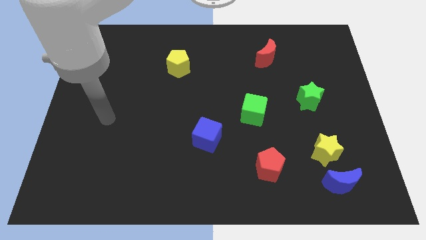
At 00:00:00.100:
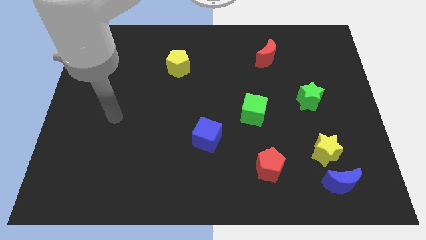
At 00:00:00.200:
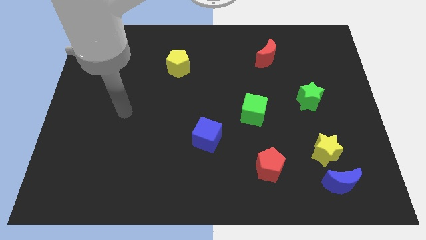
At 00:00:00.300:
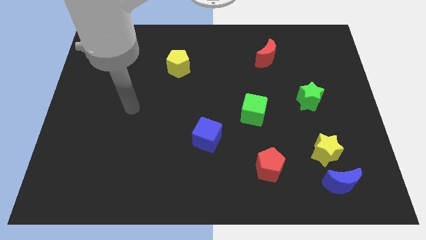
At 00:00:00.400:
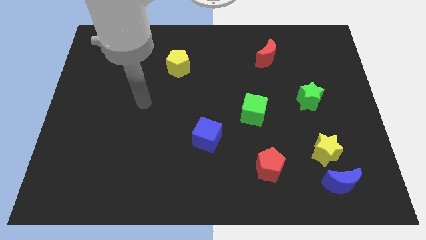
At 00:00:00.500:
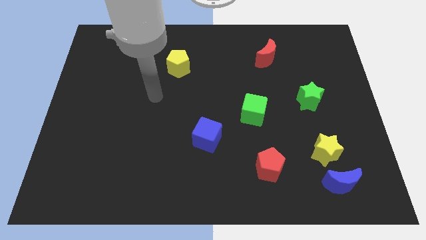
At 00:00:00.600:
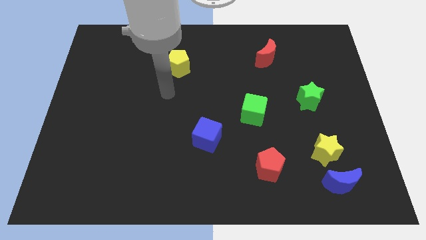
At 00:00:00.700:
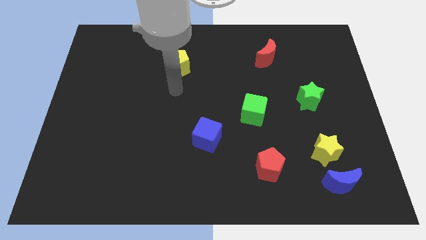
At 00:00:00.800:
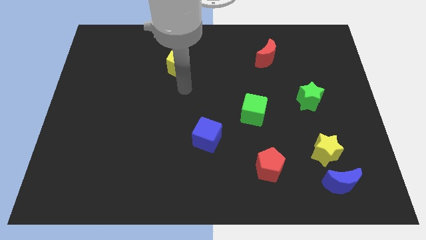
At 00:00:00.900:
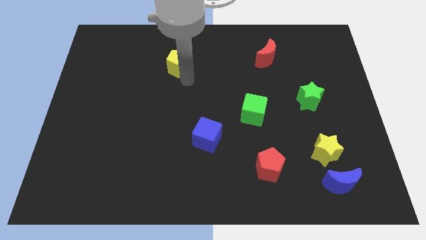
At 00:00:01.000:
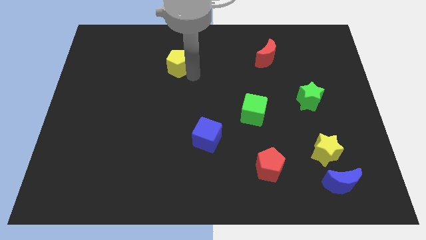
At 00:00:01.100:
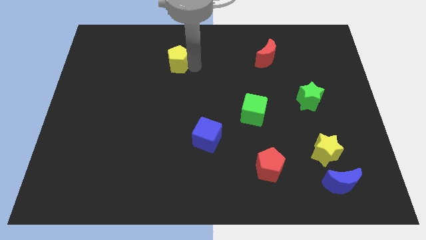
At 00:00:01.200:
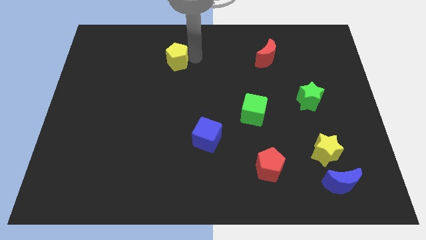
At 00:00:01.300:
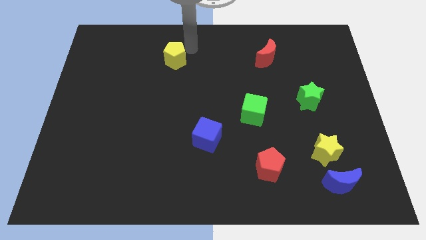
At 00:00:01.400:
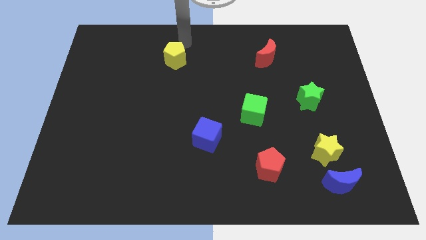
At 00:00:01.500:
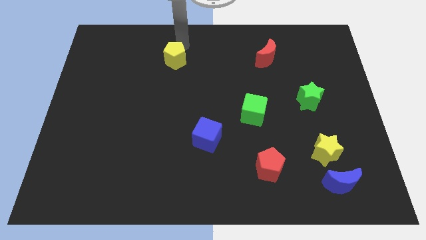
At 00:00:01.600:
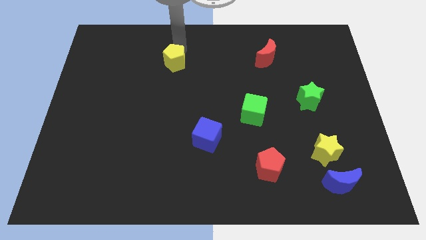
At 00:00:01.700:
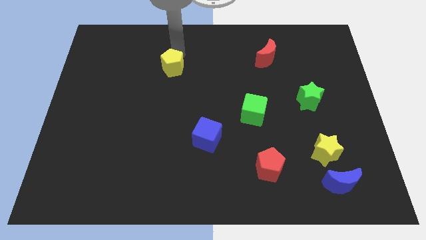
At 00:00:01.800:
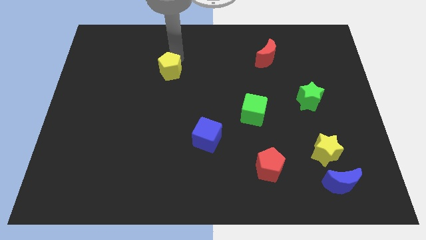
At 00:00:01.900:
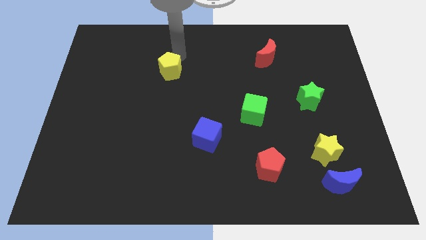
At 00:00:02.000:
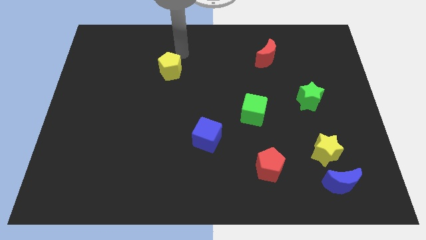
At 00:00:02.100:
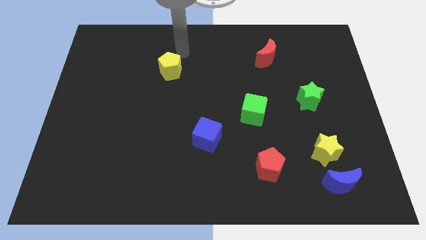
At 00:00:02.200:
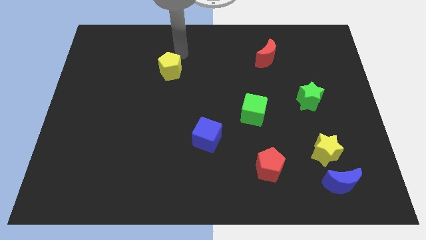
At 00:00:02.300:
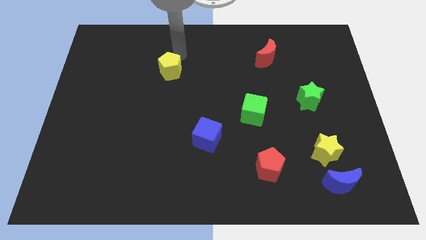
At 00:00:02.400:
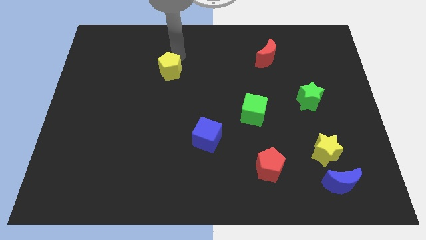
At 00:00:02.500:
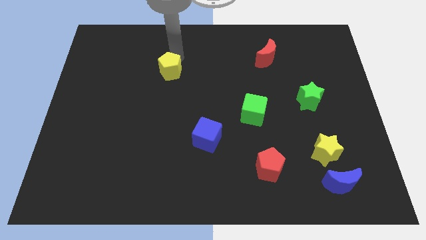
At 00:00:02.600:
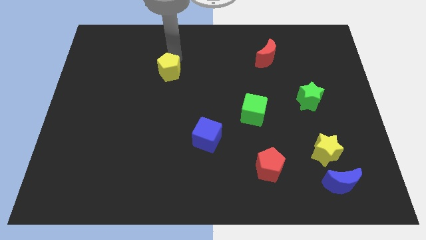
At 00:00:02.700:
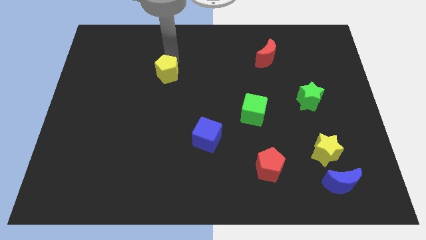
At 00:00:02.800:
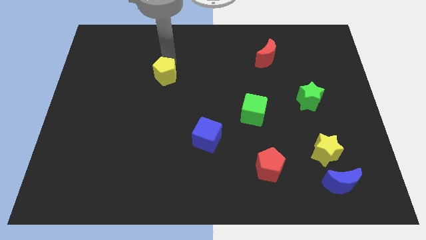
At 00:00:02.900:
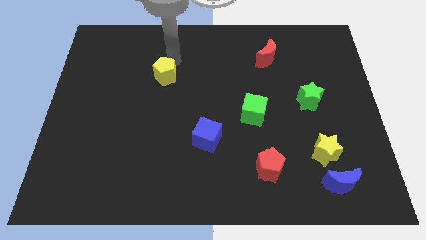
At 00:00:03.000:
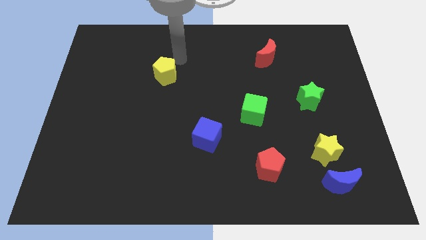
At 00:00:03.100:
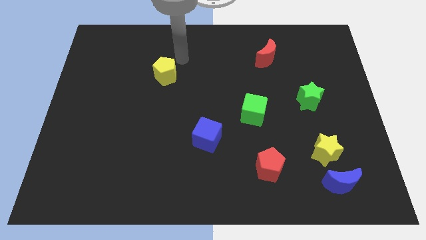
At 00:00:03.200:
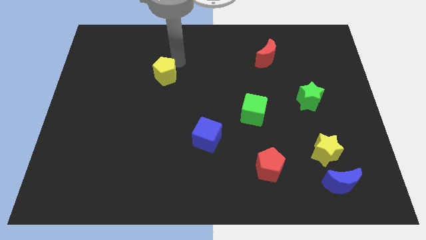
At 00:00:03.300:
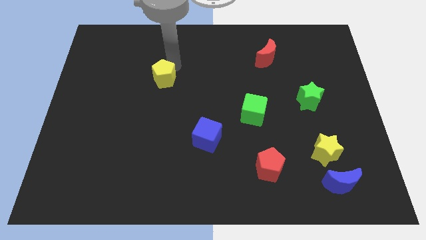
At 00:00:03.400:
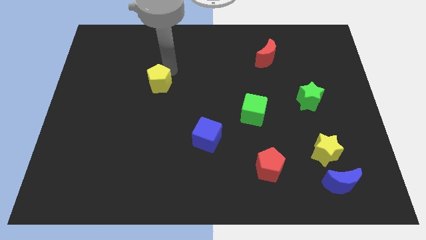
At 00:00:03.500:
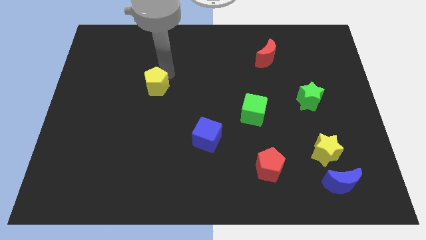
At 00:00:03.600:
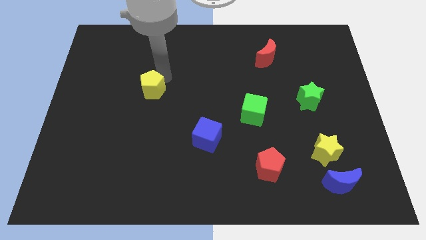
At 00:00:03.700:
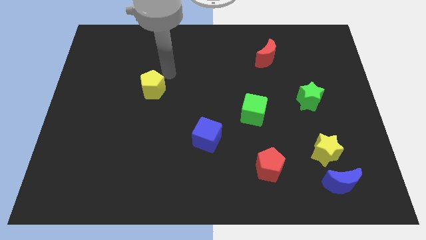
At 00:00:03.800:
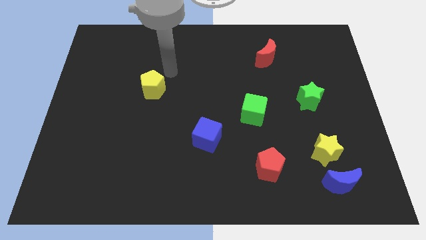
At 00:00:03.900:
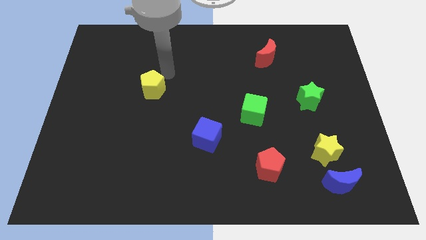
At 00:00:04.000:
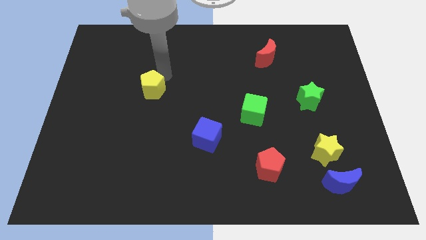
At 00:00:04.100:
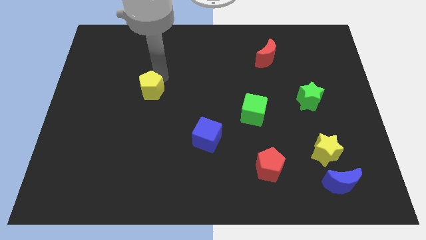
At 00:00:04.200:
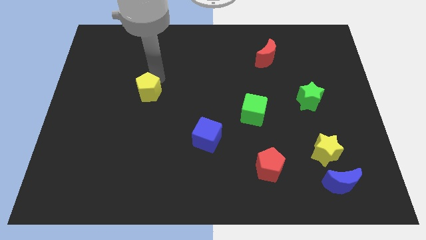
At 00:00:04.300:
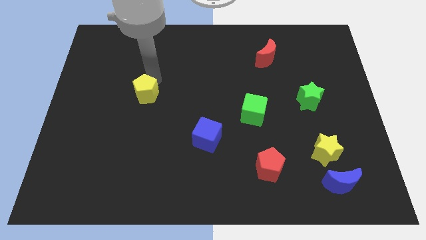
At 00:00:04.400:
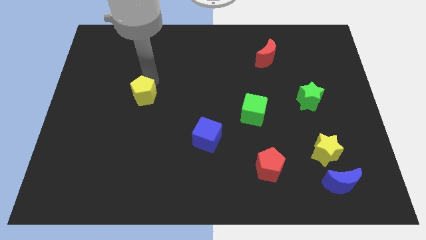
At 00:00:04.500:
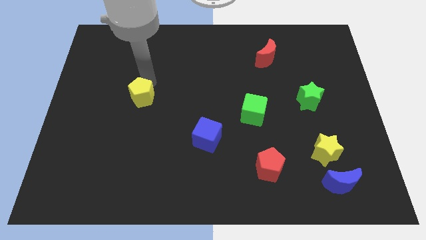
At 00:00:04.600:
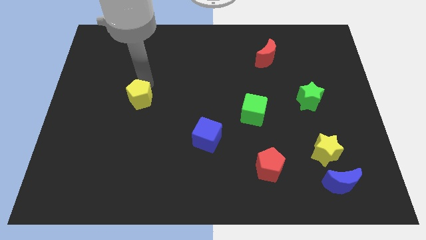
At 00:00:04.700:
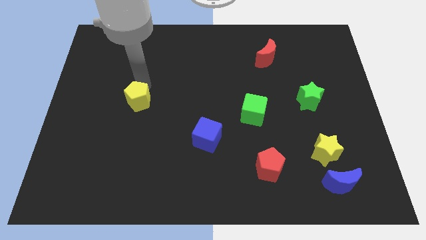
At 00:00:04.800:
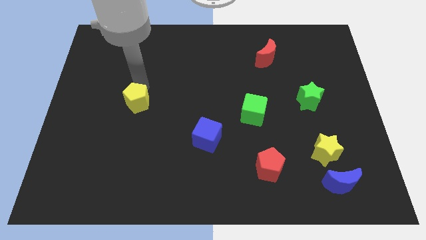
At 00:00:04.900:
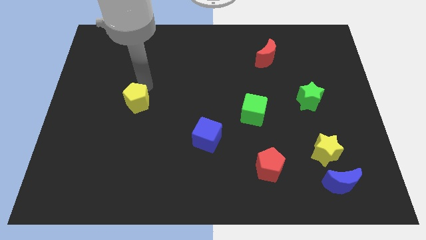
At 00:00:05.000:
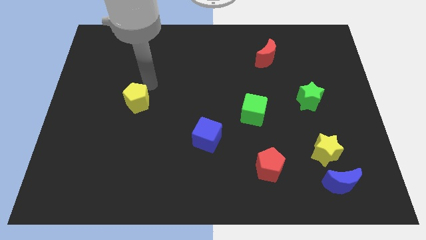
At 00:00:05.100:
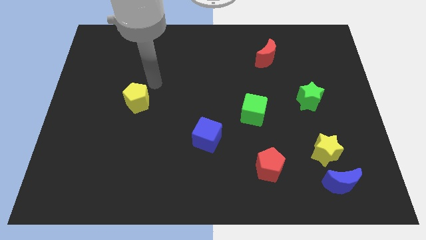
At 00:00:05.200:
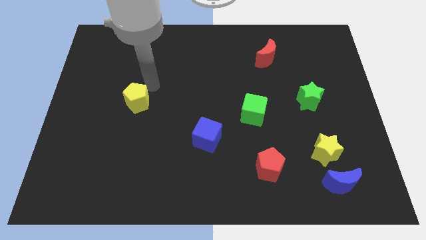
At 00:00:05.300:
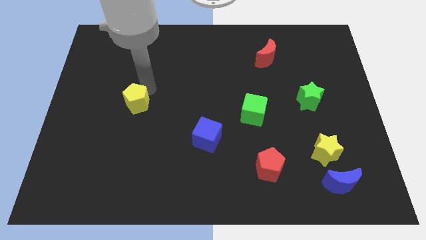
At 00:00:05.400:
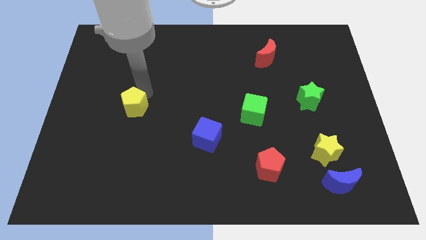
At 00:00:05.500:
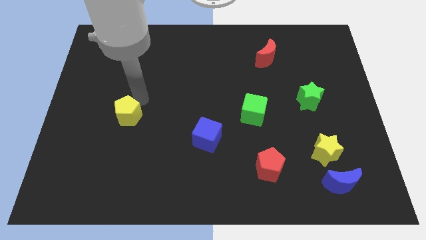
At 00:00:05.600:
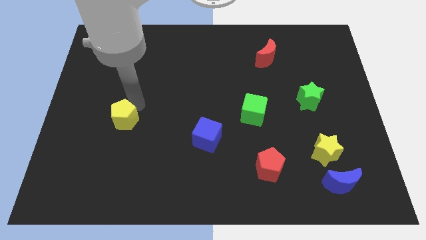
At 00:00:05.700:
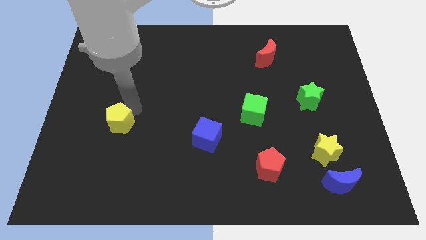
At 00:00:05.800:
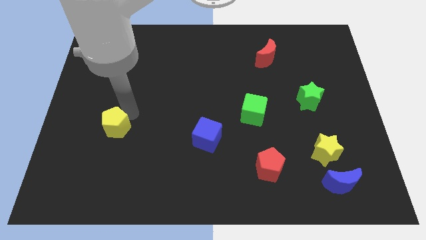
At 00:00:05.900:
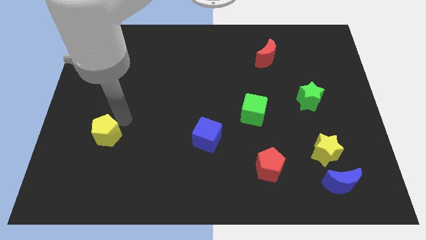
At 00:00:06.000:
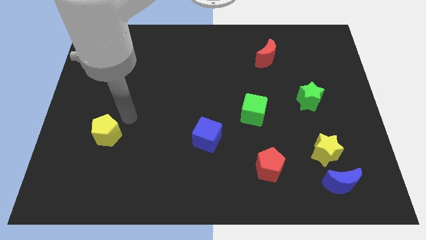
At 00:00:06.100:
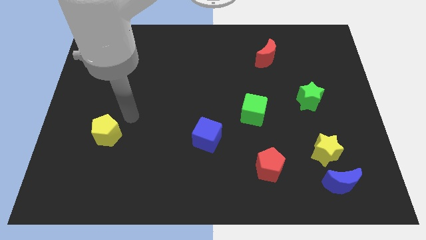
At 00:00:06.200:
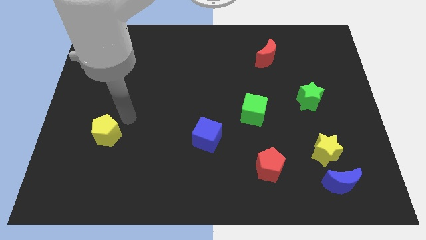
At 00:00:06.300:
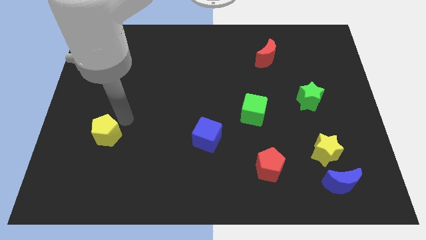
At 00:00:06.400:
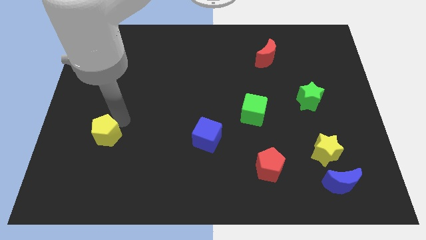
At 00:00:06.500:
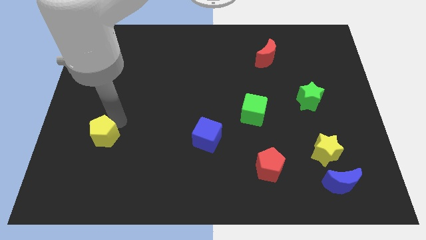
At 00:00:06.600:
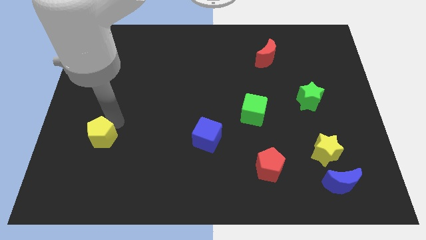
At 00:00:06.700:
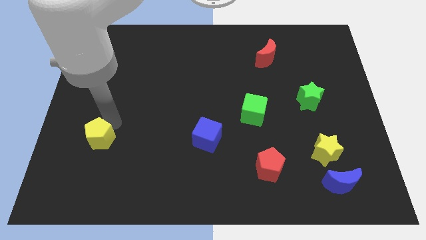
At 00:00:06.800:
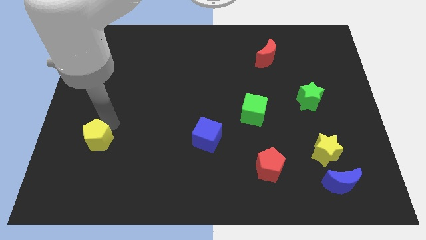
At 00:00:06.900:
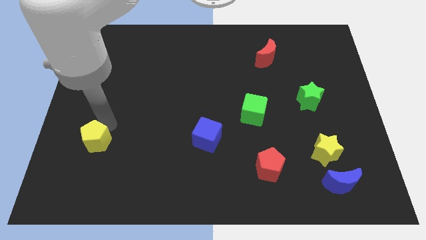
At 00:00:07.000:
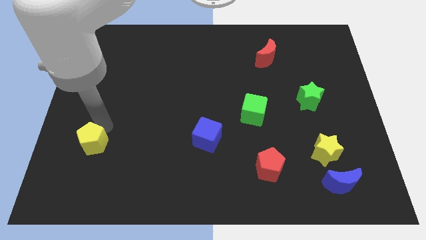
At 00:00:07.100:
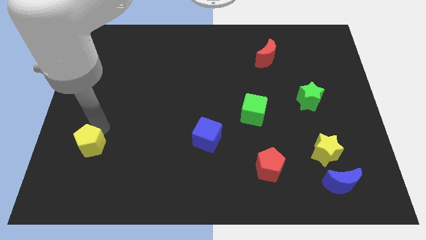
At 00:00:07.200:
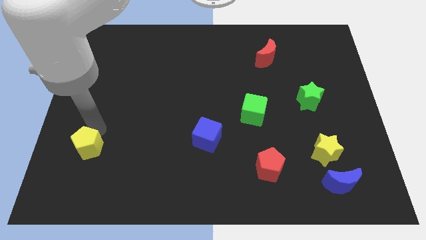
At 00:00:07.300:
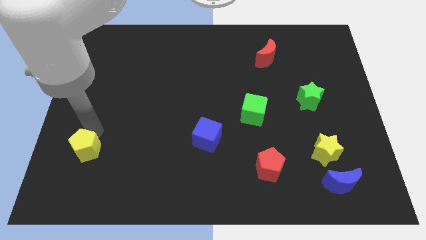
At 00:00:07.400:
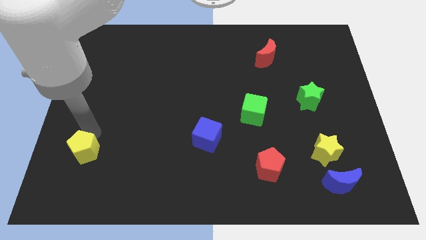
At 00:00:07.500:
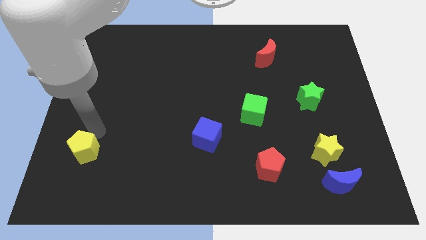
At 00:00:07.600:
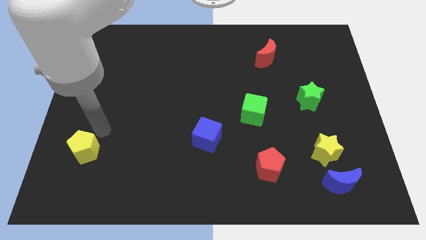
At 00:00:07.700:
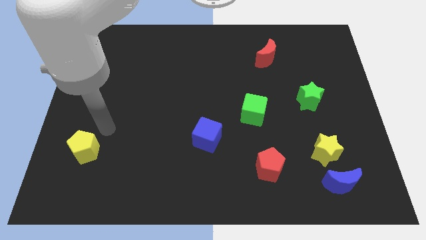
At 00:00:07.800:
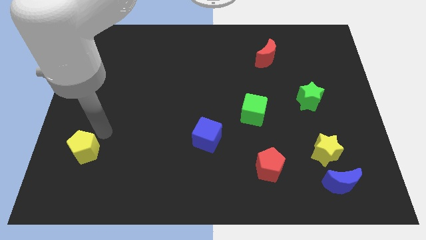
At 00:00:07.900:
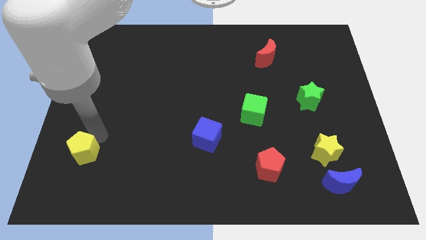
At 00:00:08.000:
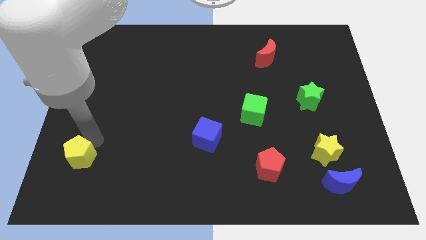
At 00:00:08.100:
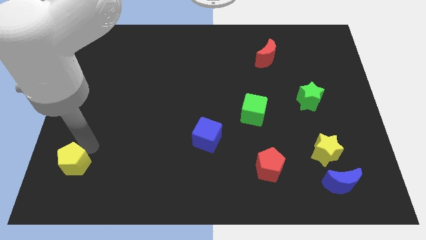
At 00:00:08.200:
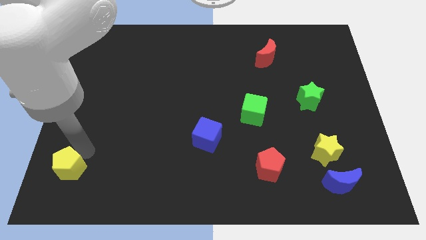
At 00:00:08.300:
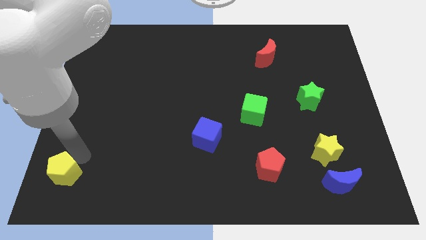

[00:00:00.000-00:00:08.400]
put the yellow pentagon to the bottom left
